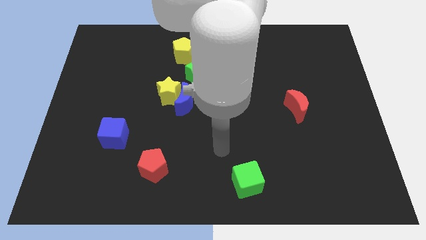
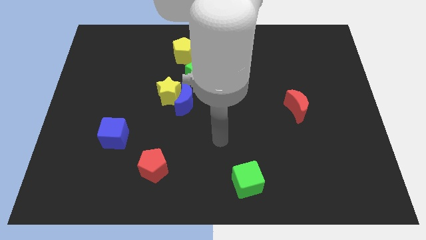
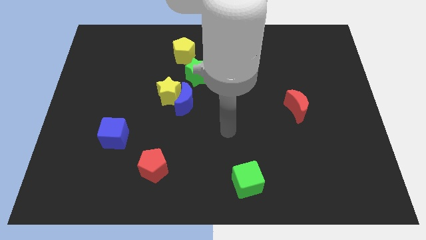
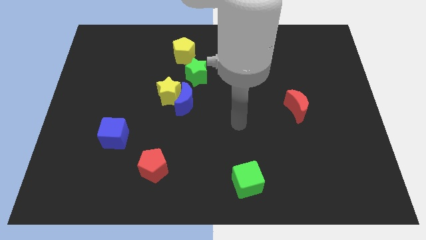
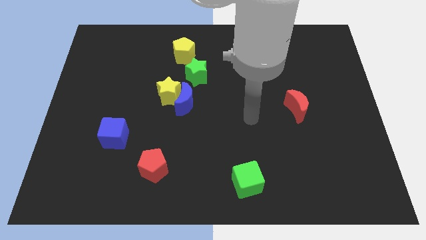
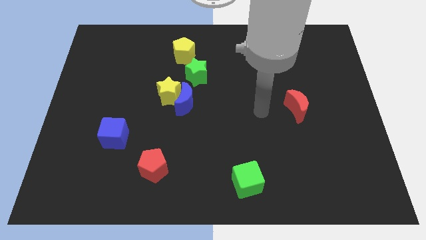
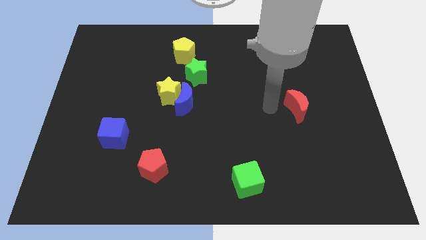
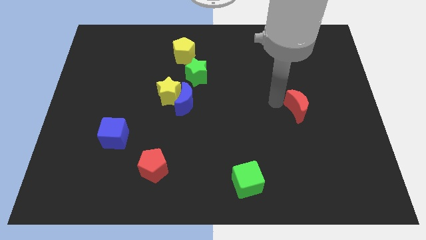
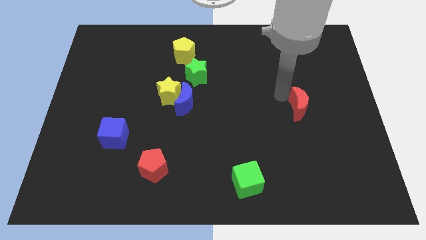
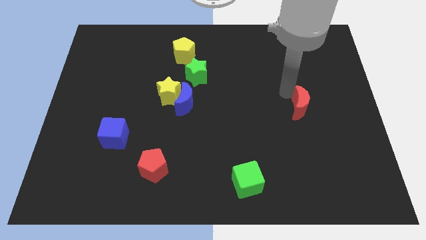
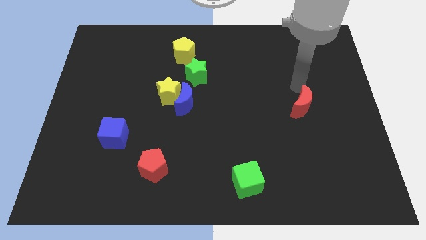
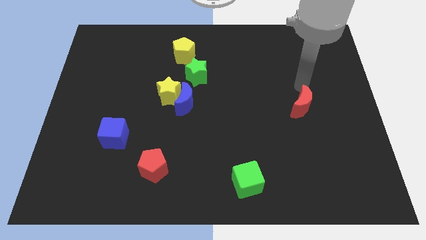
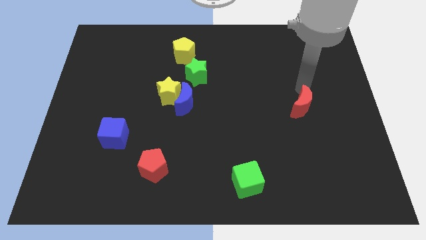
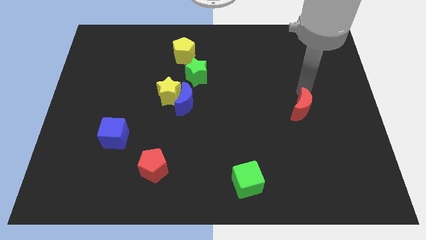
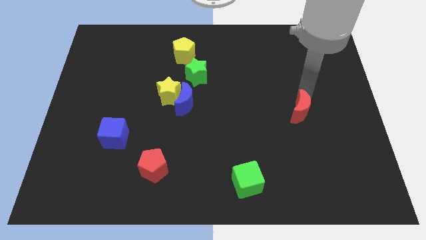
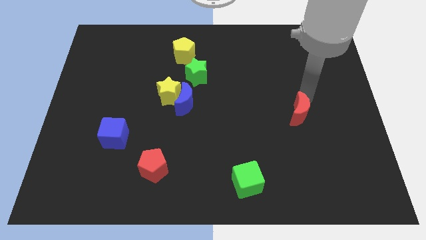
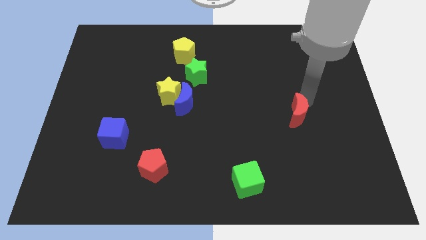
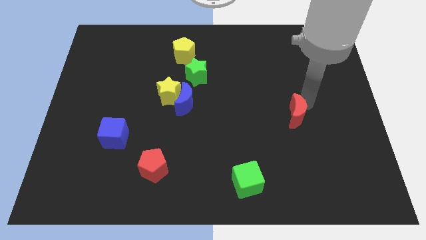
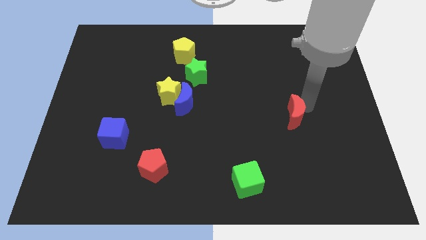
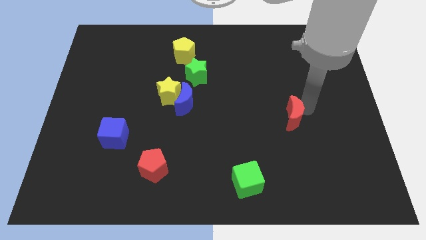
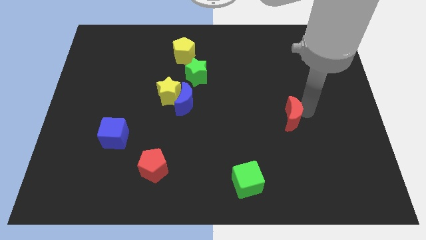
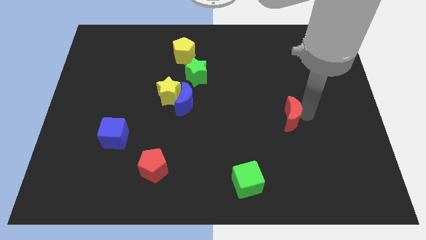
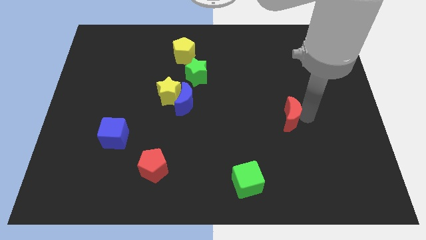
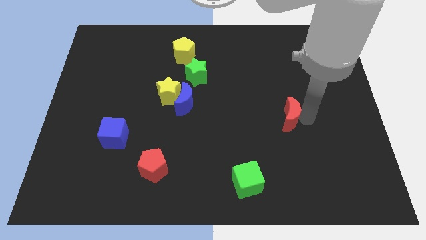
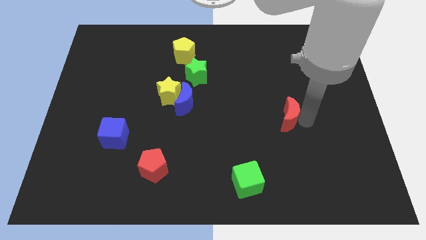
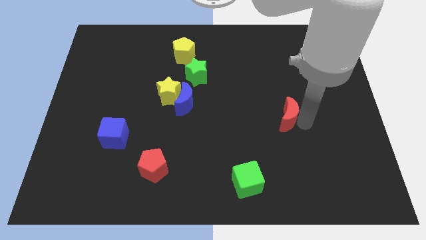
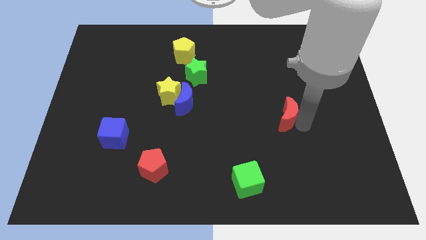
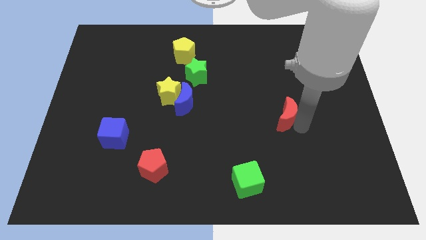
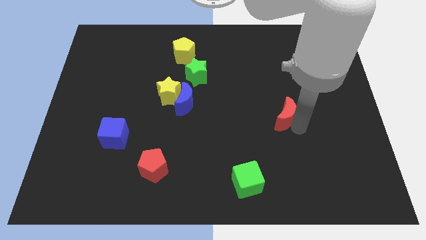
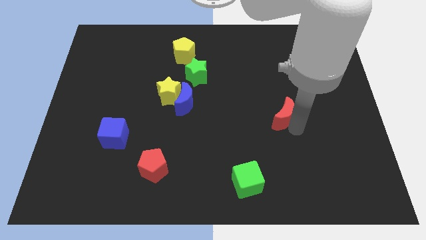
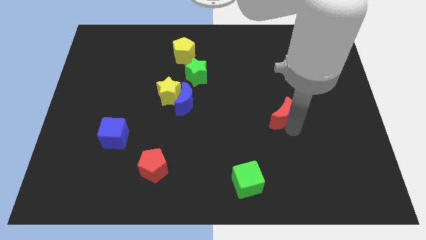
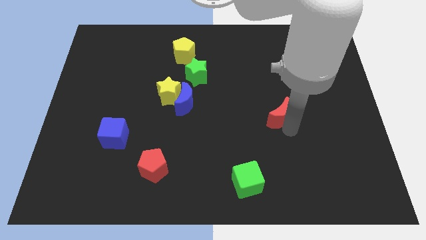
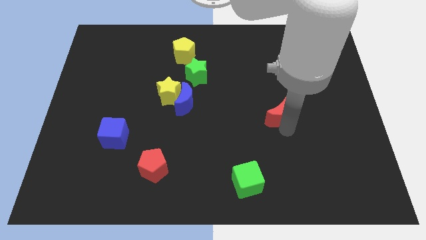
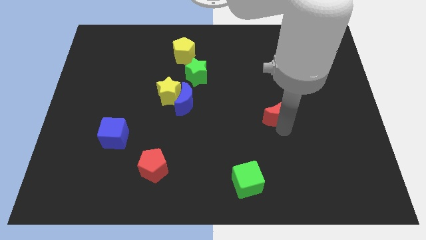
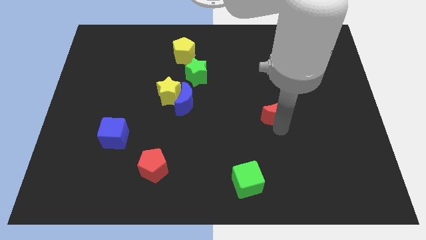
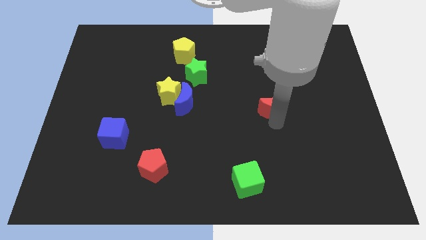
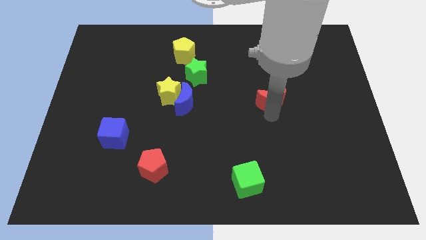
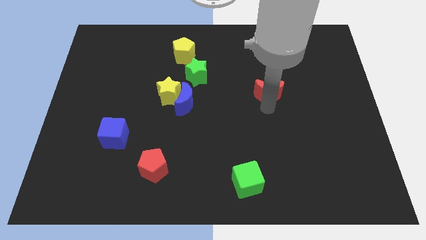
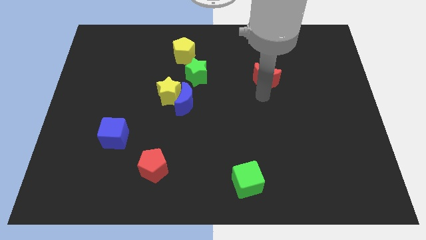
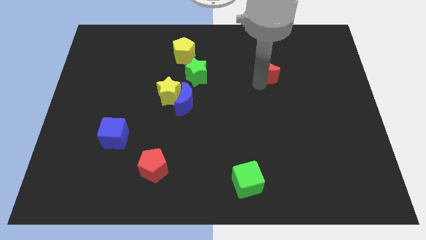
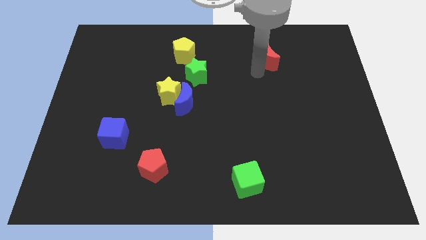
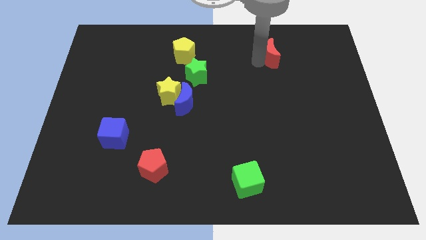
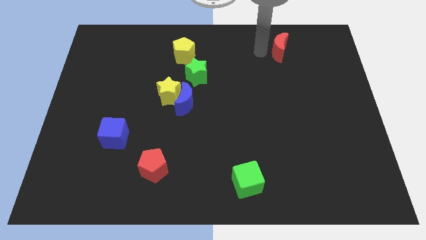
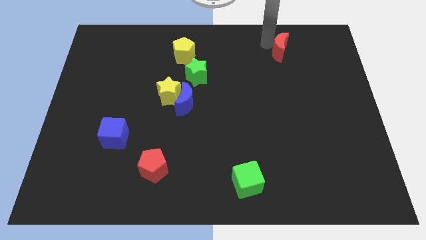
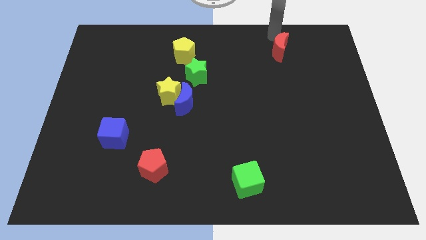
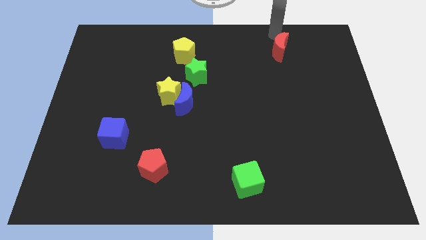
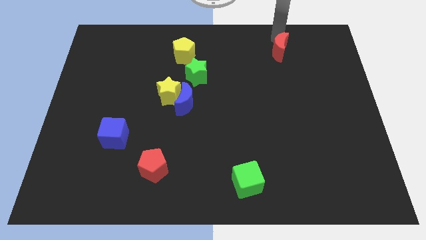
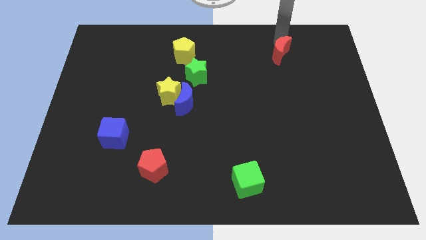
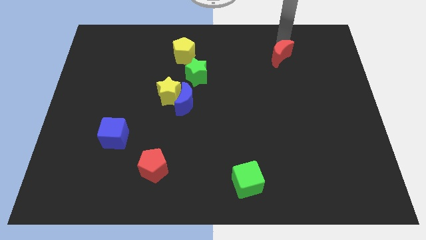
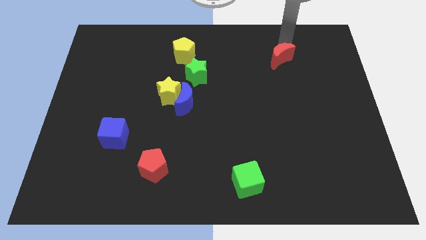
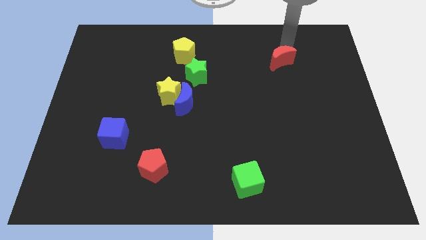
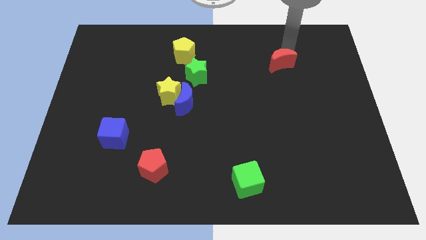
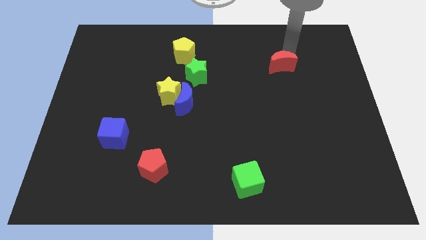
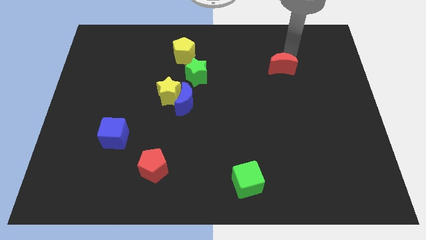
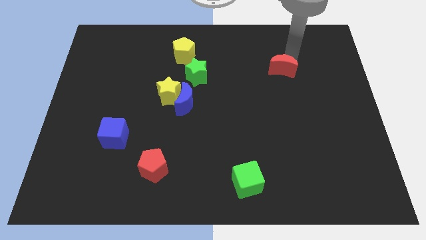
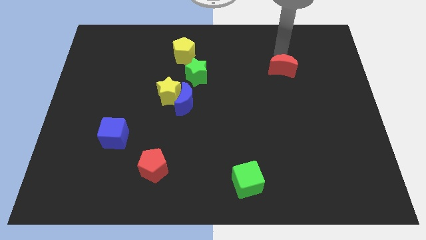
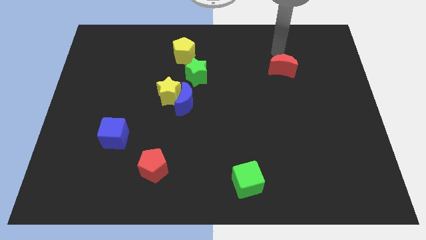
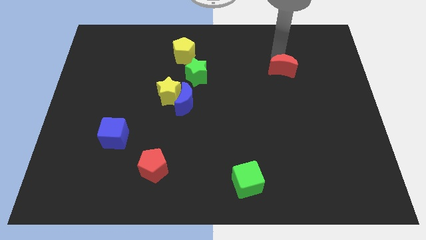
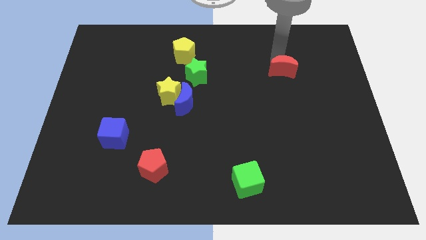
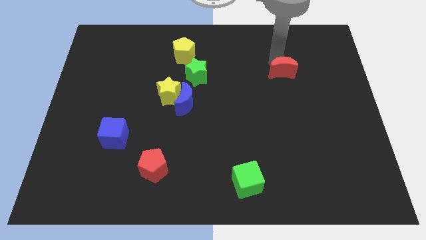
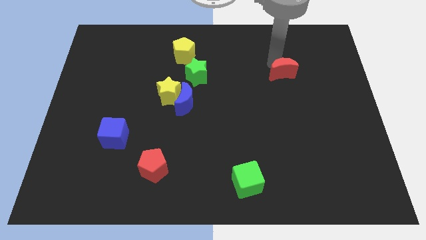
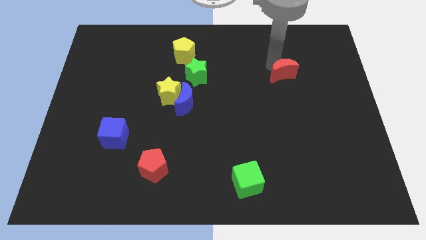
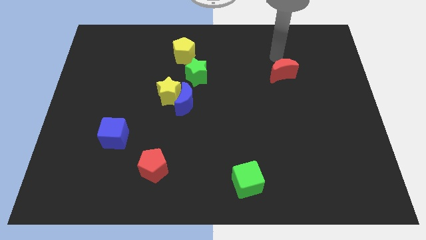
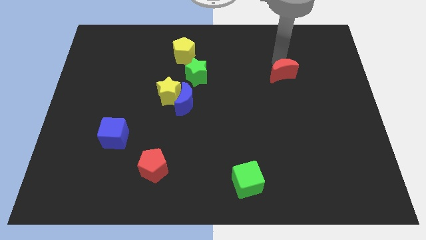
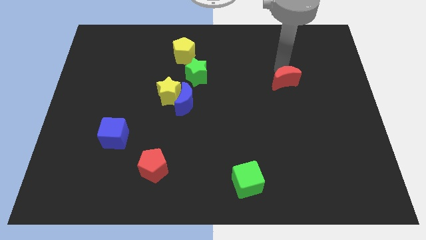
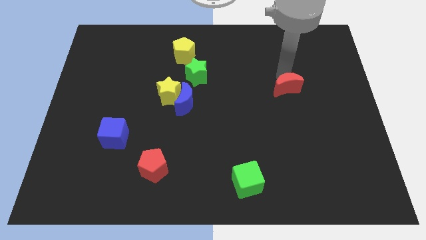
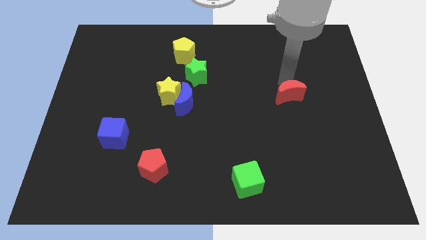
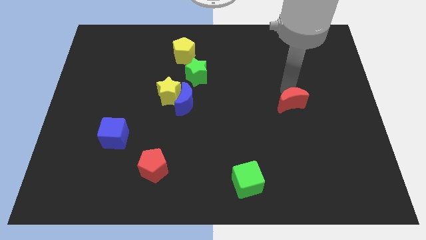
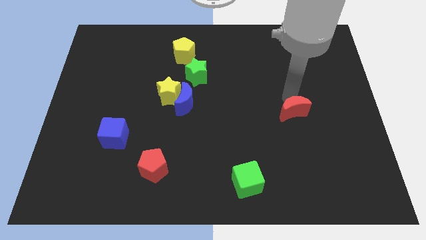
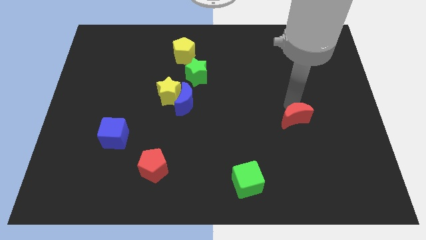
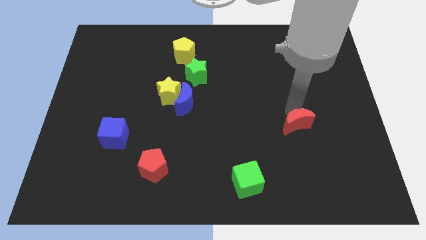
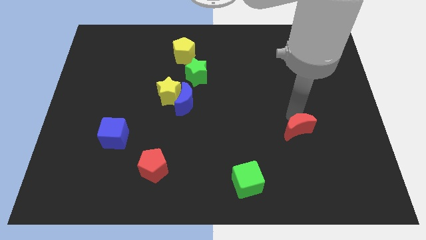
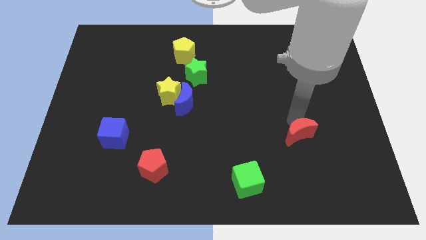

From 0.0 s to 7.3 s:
slightly push the red moon downwards

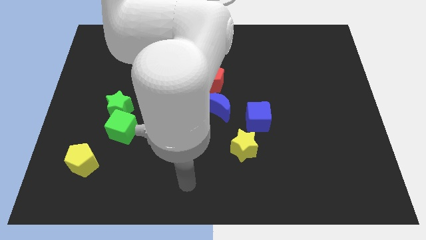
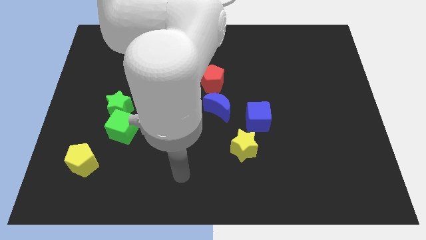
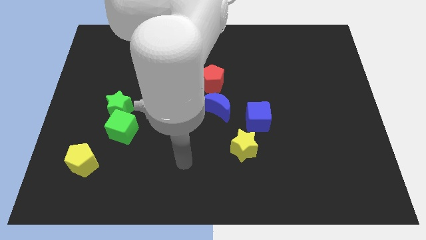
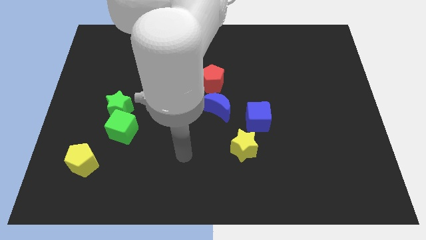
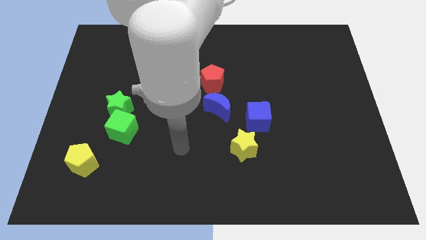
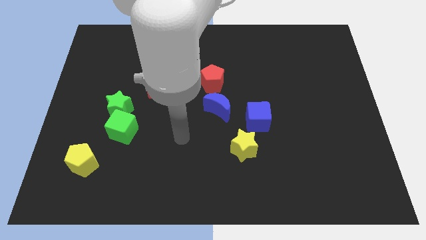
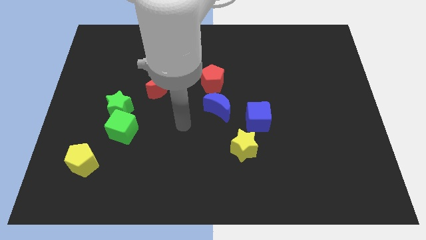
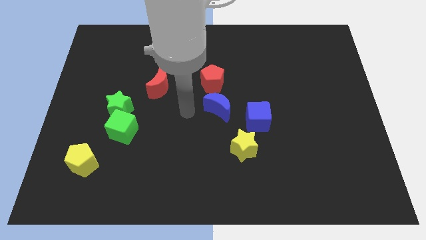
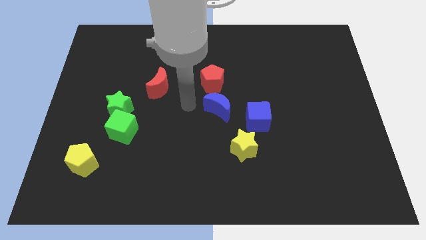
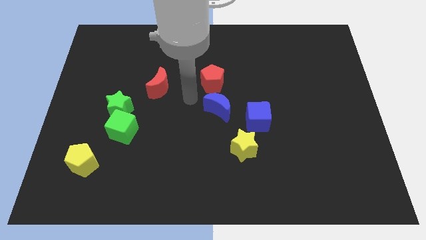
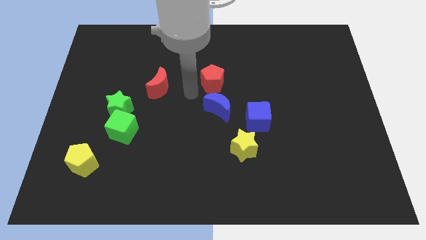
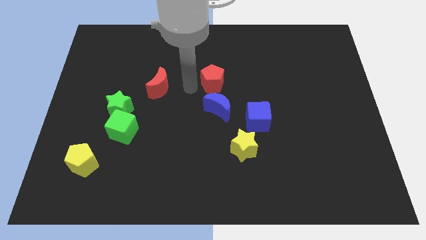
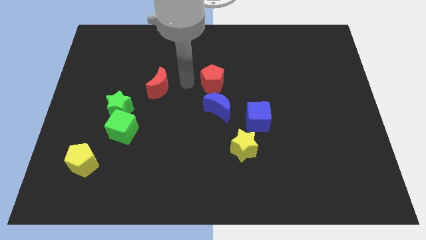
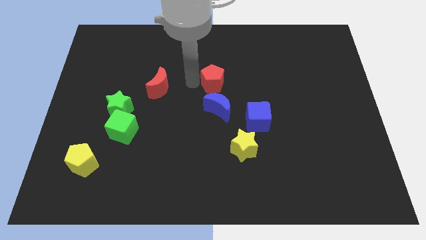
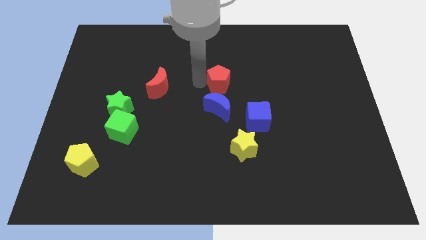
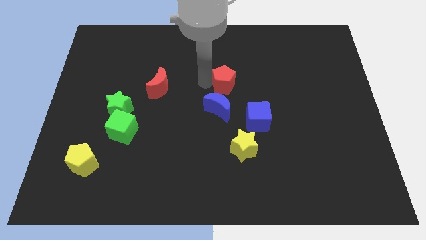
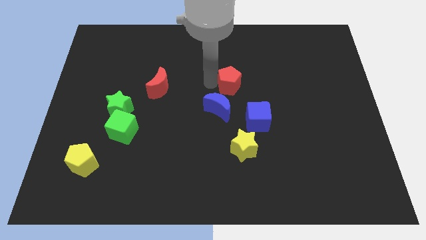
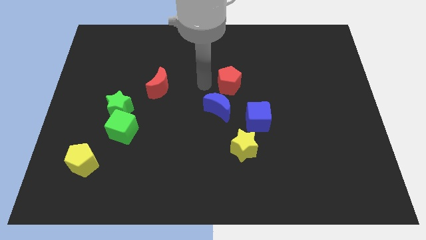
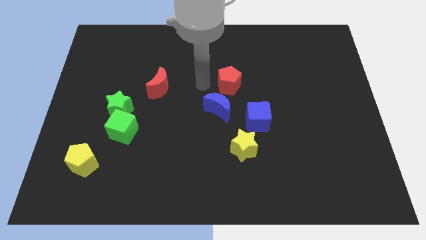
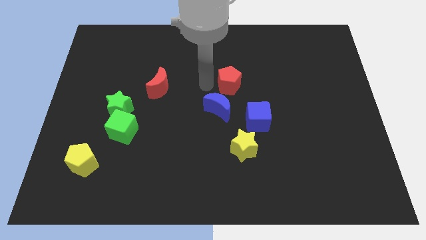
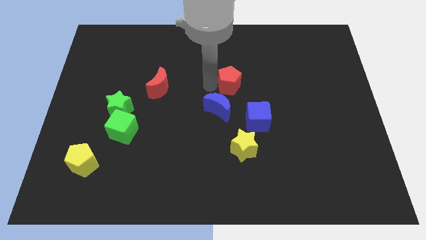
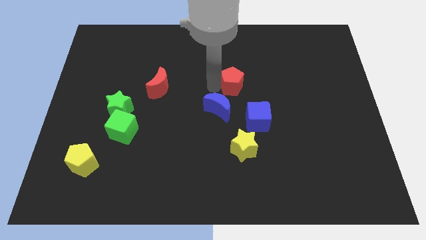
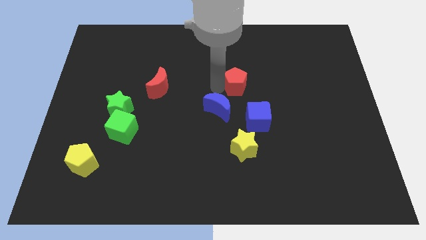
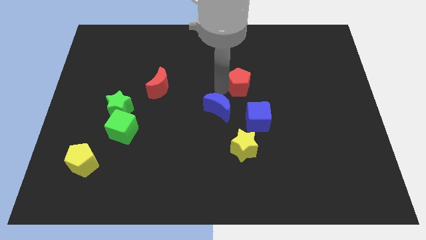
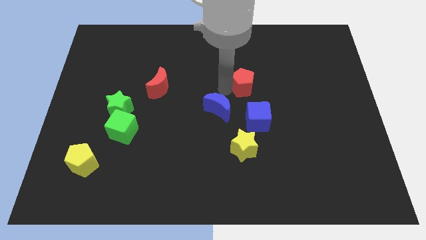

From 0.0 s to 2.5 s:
slightly move the red pentagon right
